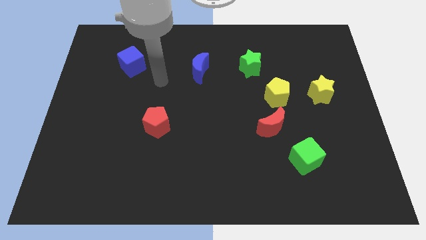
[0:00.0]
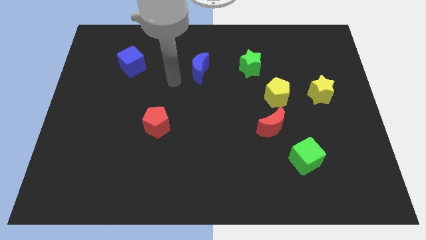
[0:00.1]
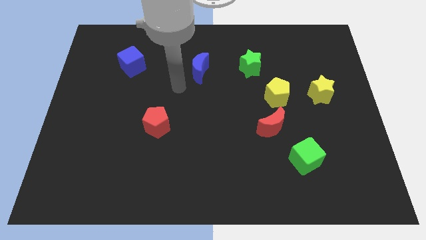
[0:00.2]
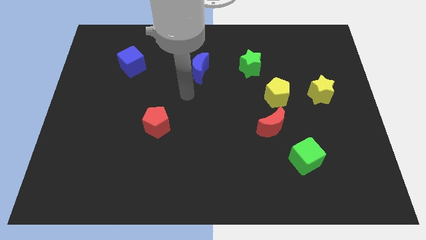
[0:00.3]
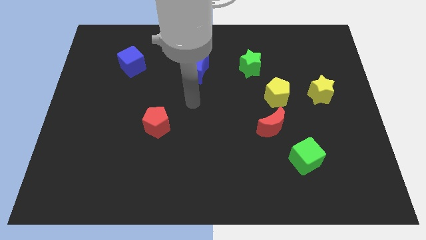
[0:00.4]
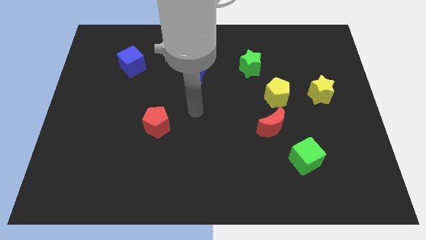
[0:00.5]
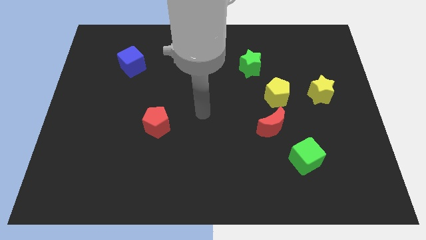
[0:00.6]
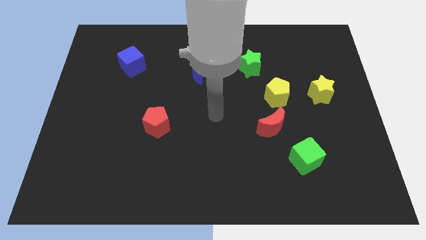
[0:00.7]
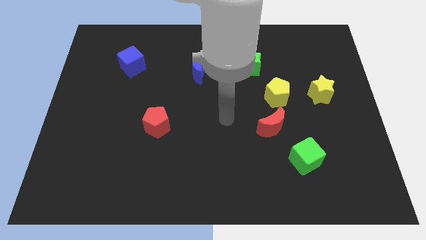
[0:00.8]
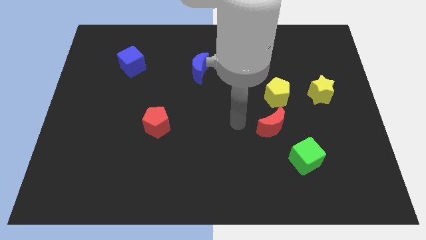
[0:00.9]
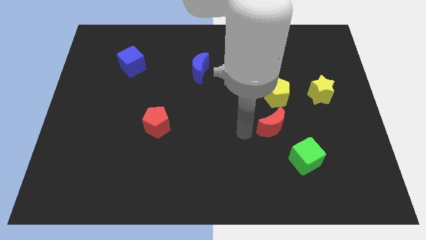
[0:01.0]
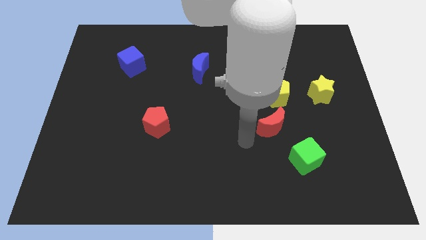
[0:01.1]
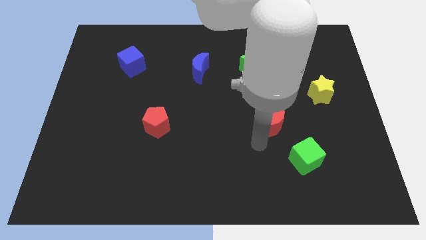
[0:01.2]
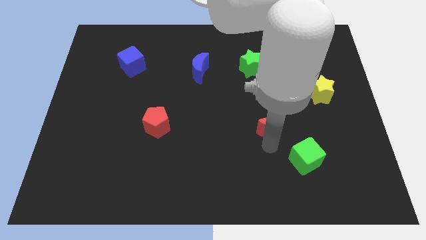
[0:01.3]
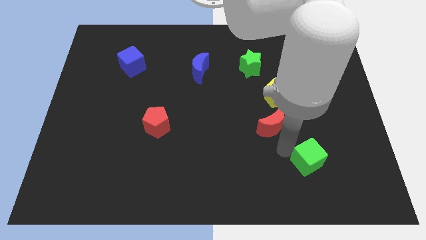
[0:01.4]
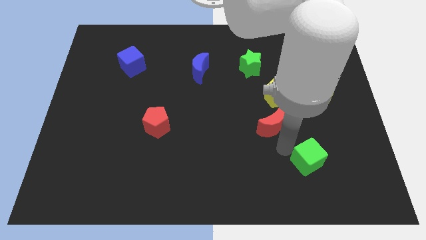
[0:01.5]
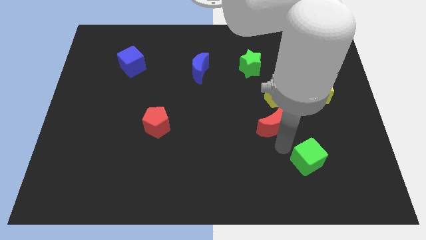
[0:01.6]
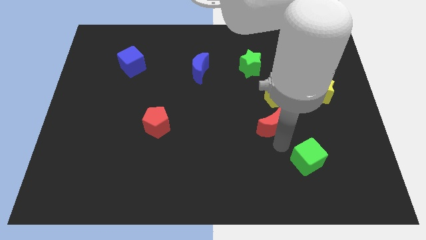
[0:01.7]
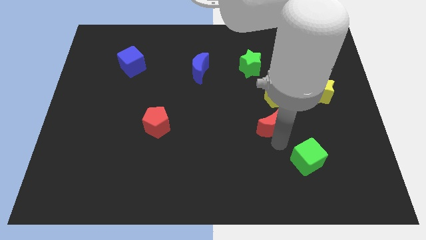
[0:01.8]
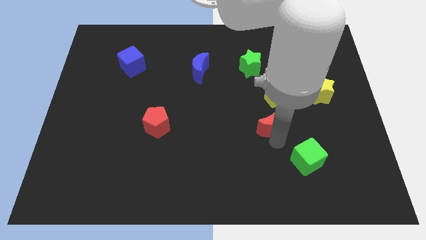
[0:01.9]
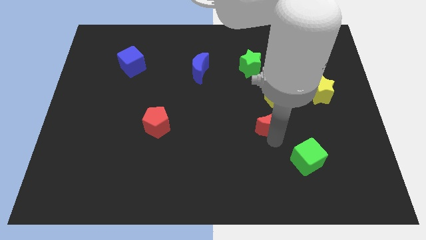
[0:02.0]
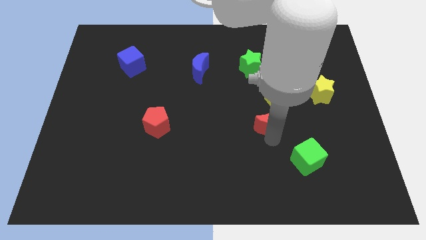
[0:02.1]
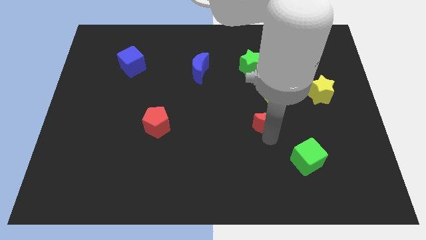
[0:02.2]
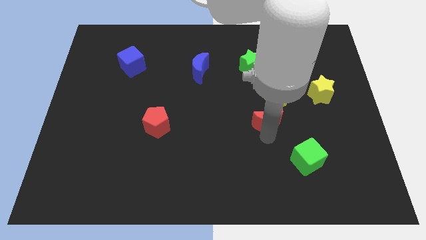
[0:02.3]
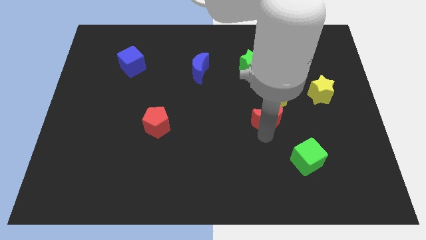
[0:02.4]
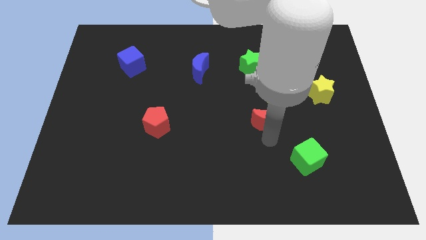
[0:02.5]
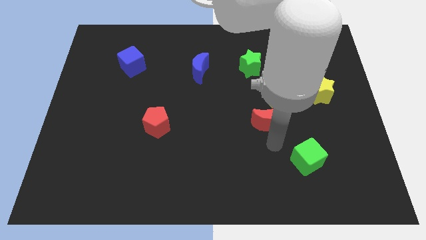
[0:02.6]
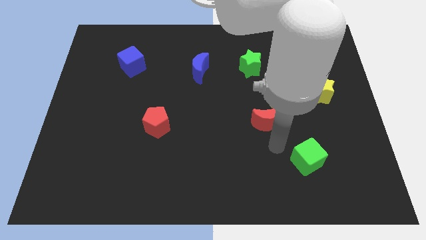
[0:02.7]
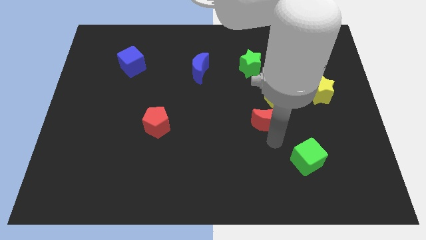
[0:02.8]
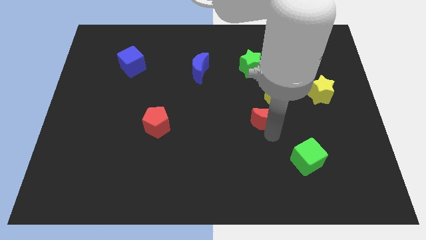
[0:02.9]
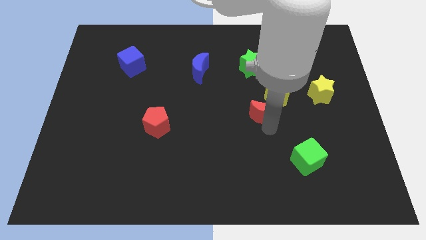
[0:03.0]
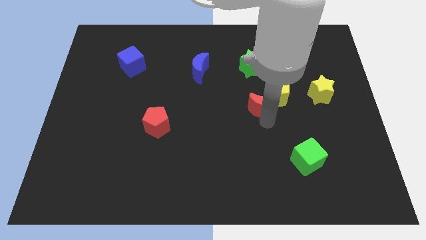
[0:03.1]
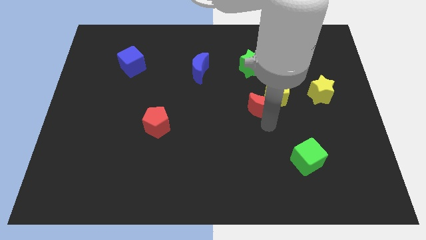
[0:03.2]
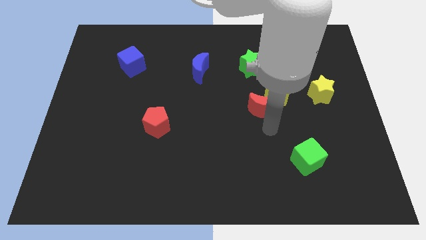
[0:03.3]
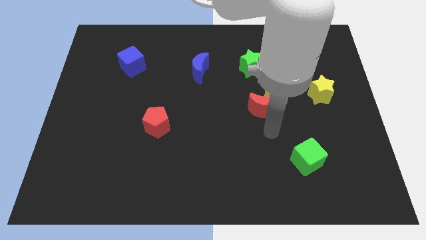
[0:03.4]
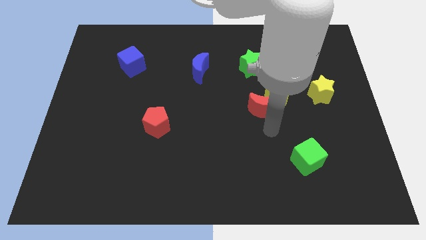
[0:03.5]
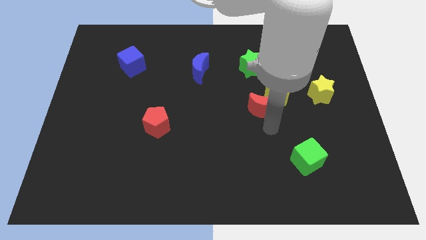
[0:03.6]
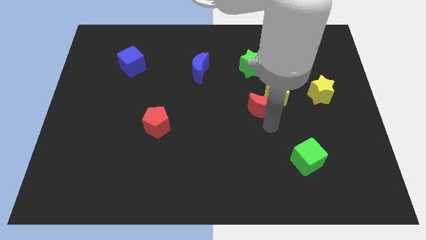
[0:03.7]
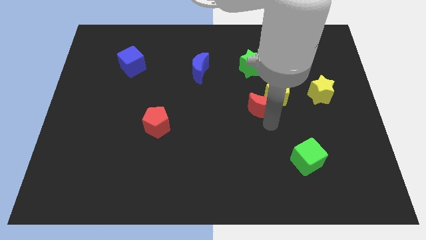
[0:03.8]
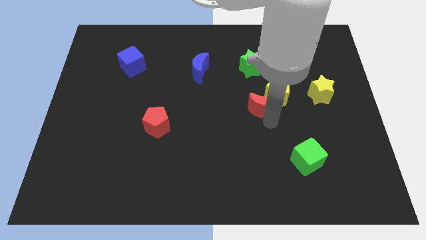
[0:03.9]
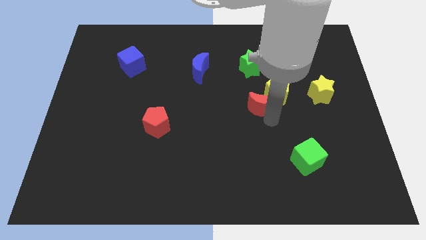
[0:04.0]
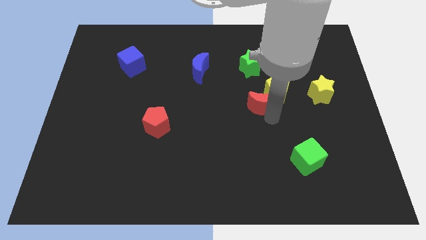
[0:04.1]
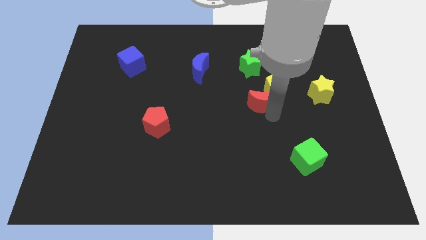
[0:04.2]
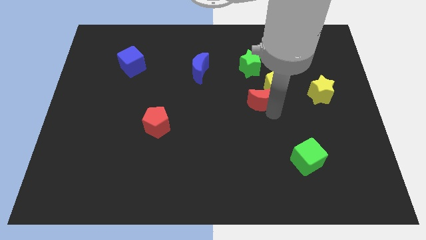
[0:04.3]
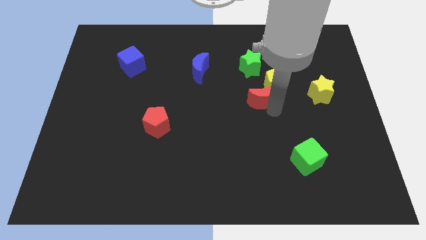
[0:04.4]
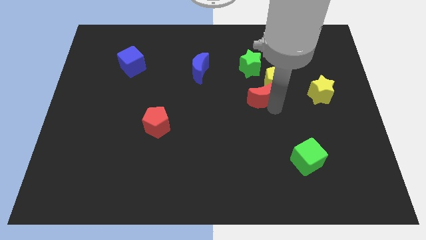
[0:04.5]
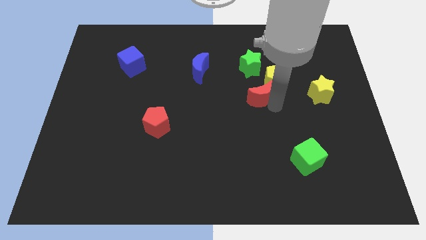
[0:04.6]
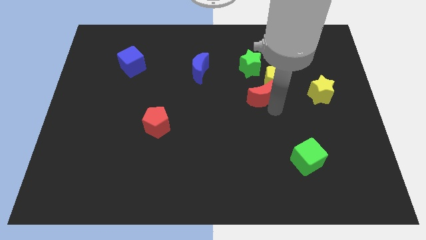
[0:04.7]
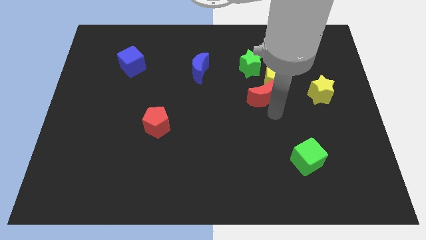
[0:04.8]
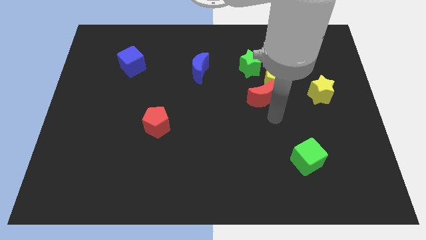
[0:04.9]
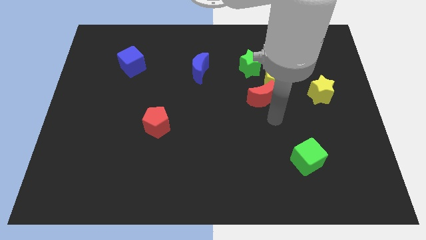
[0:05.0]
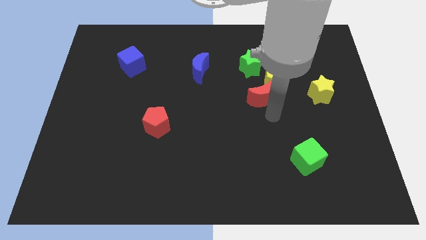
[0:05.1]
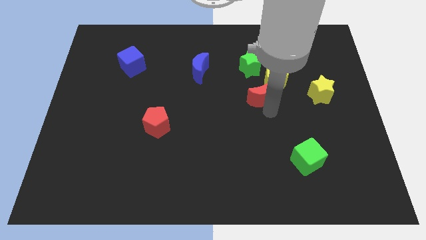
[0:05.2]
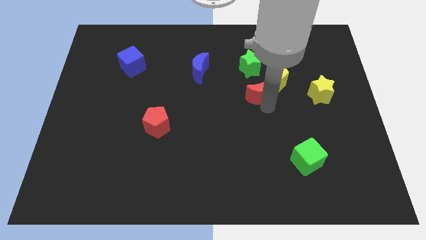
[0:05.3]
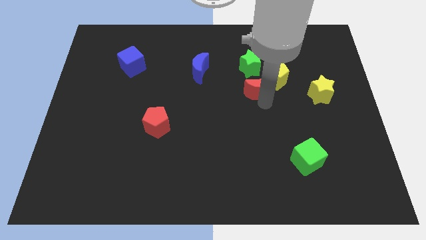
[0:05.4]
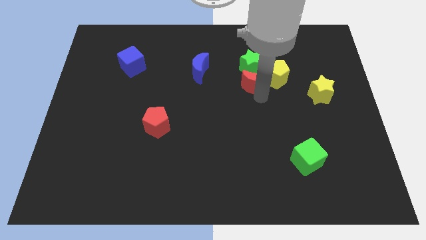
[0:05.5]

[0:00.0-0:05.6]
move the red moon towards the green star

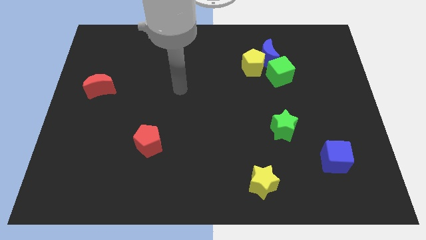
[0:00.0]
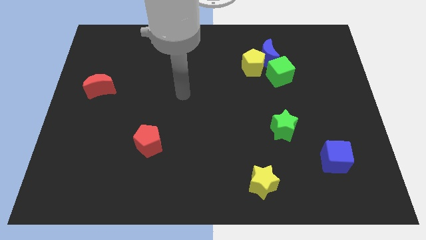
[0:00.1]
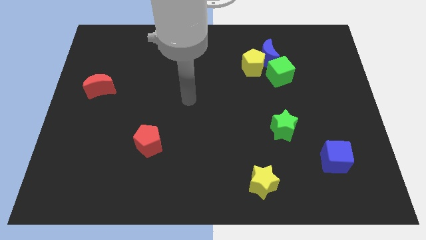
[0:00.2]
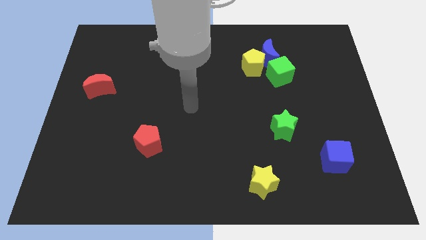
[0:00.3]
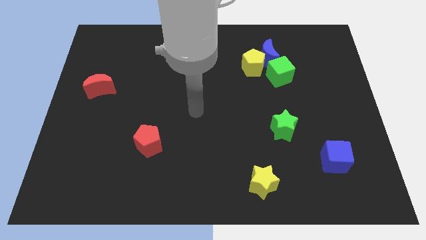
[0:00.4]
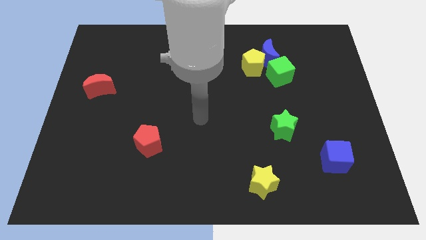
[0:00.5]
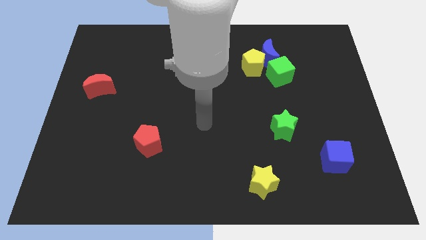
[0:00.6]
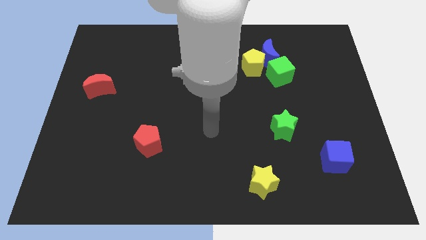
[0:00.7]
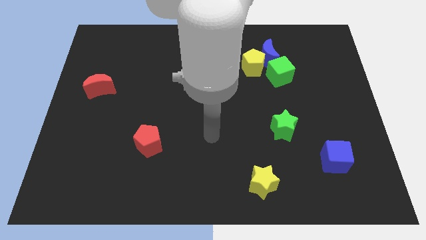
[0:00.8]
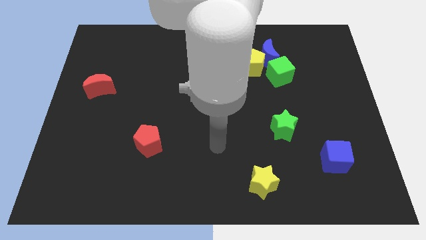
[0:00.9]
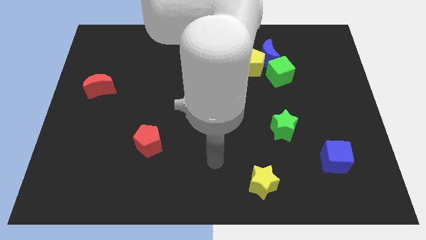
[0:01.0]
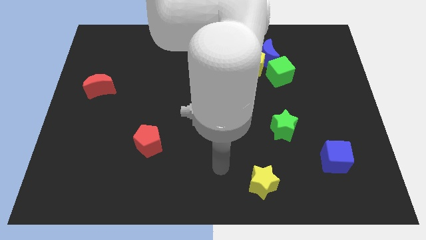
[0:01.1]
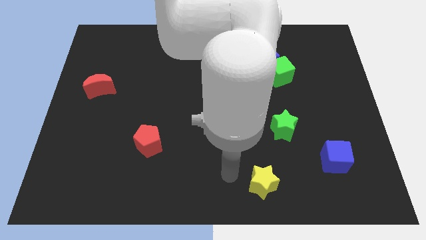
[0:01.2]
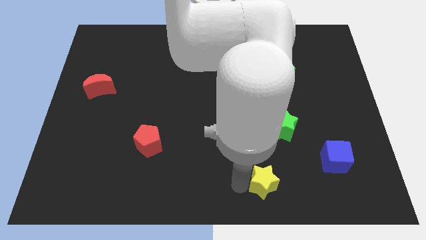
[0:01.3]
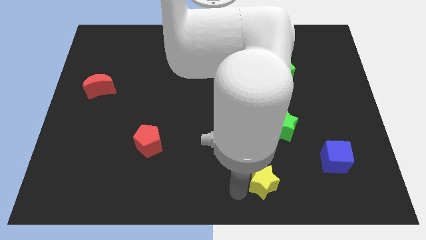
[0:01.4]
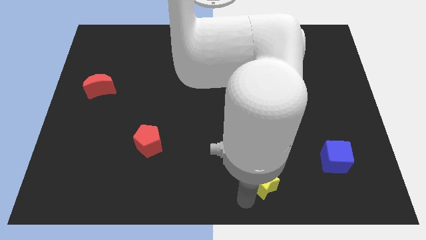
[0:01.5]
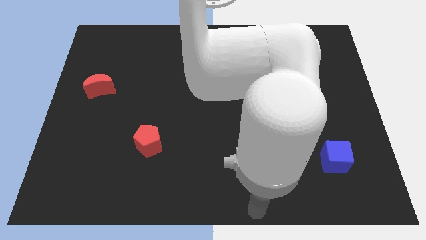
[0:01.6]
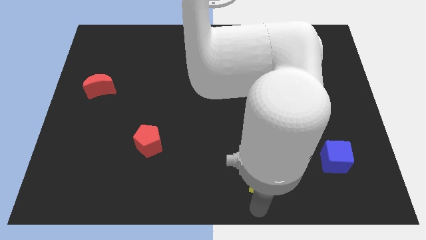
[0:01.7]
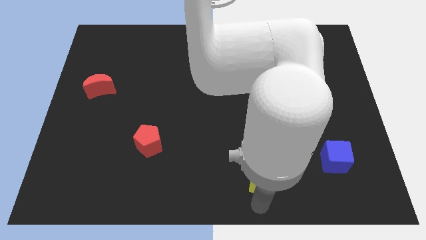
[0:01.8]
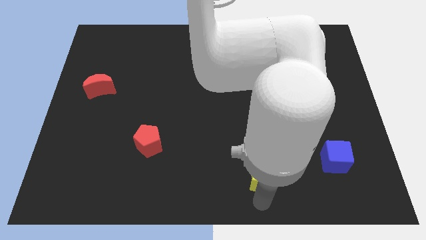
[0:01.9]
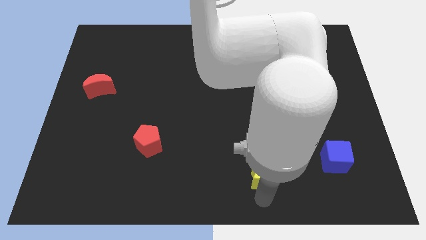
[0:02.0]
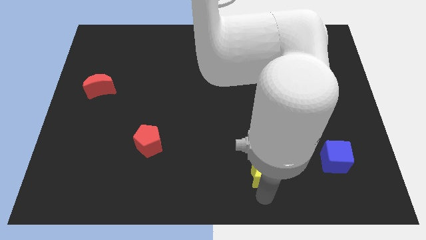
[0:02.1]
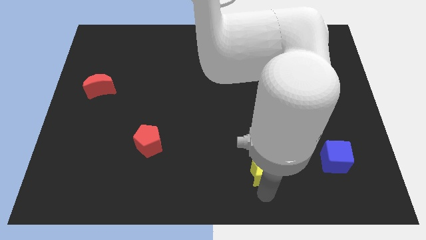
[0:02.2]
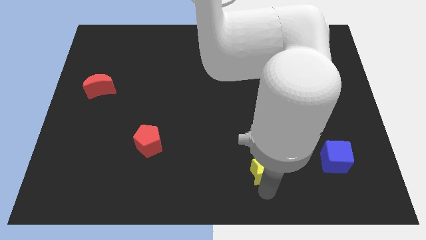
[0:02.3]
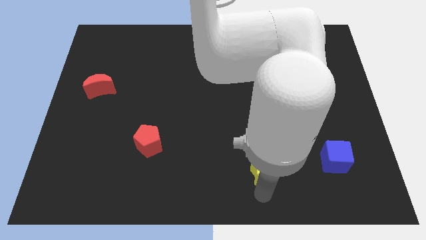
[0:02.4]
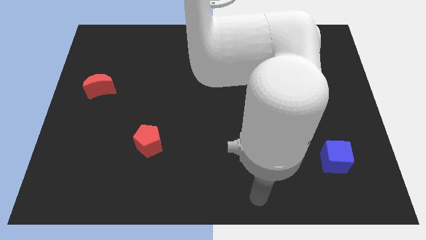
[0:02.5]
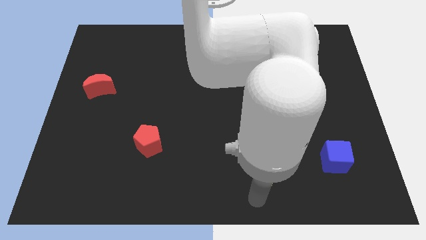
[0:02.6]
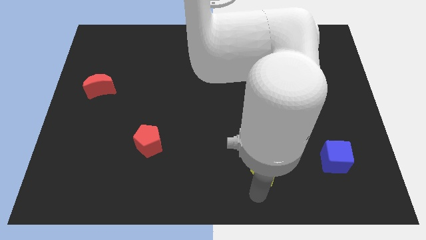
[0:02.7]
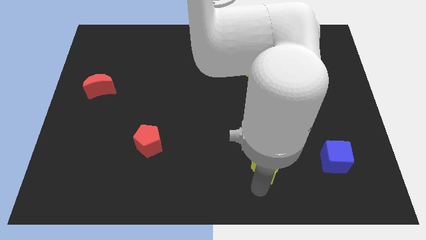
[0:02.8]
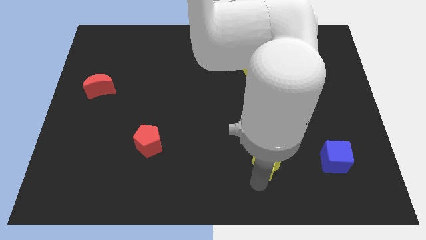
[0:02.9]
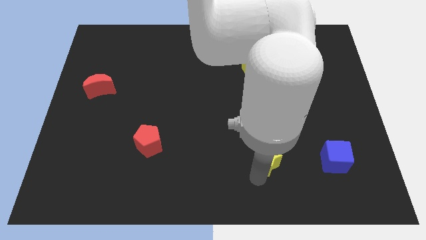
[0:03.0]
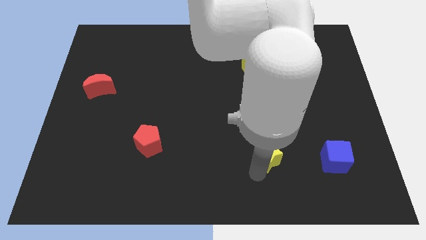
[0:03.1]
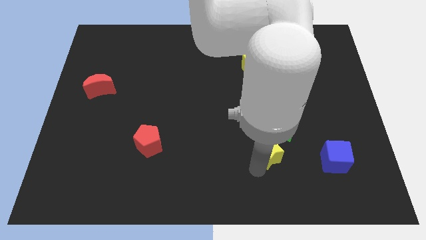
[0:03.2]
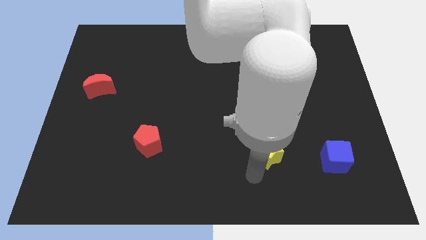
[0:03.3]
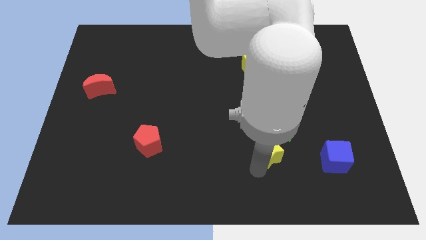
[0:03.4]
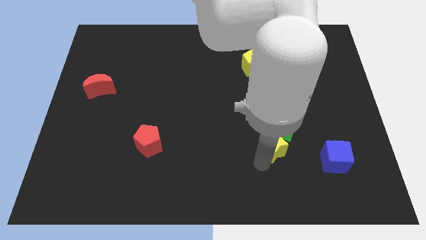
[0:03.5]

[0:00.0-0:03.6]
slide the yellow star to the green star
